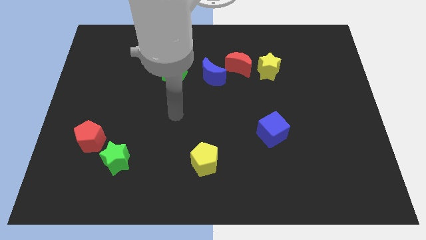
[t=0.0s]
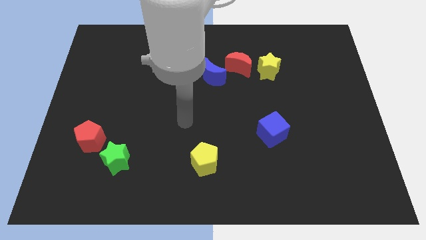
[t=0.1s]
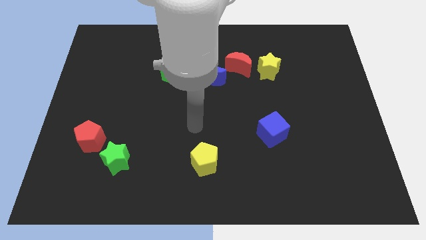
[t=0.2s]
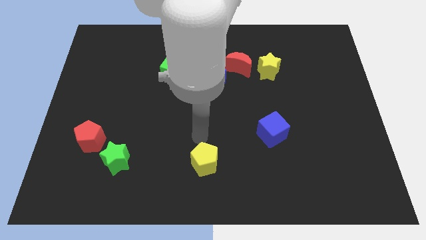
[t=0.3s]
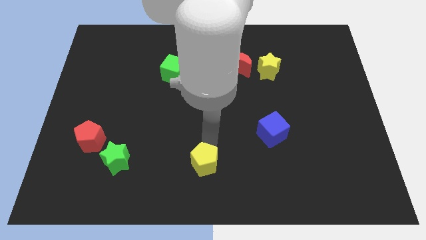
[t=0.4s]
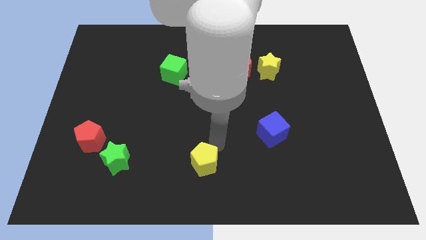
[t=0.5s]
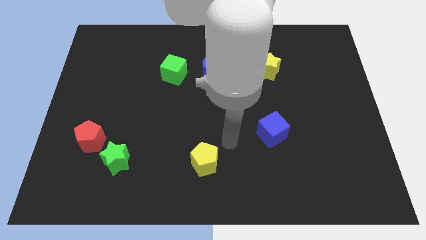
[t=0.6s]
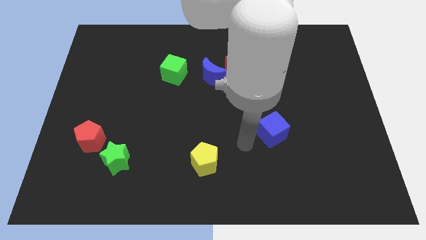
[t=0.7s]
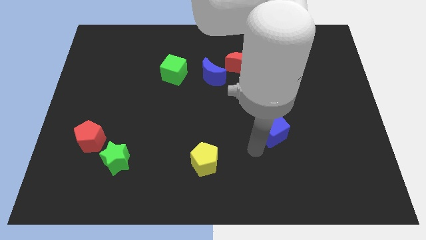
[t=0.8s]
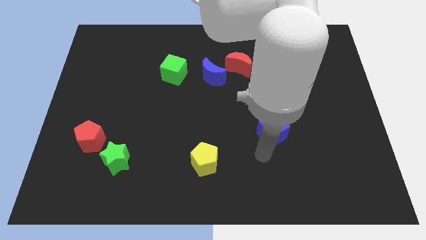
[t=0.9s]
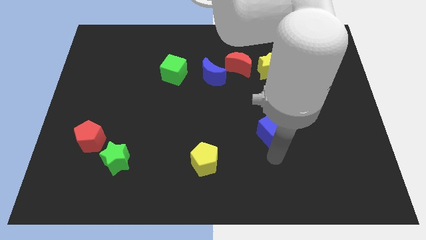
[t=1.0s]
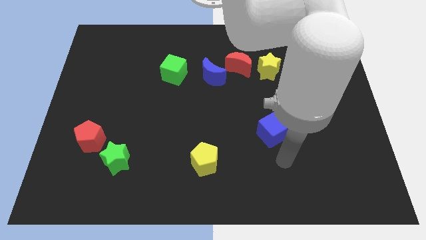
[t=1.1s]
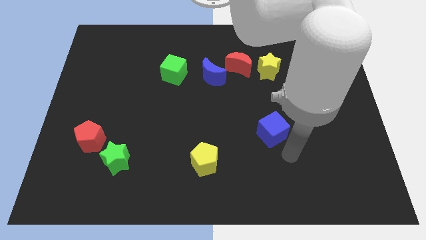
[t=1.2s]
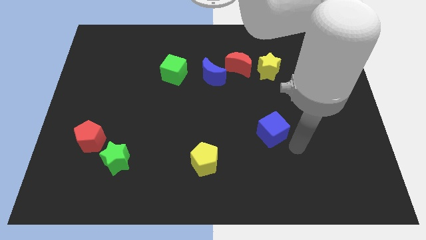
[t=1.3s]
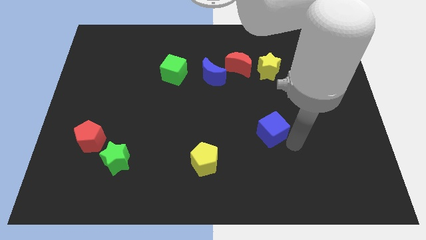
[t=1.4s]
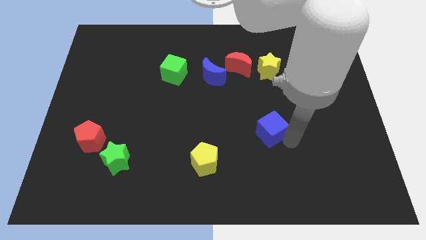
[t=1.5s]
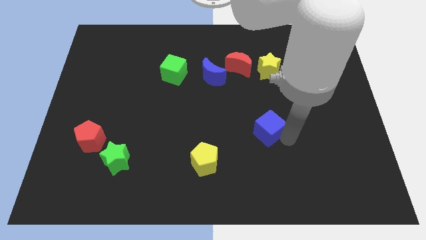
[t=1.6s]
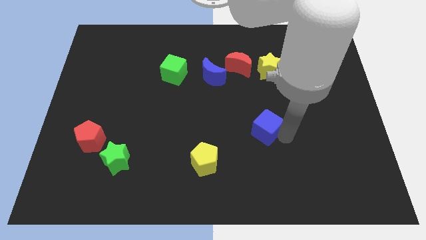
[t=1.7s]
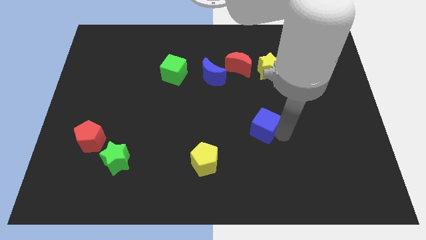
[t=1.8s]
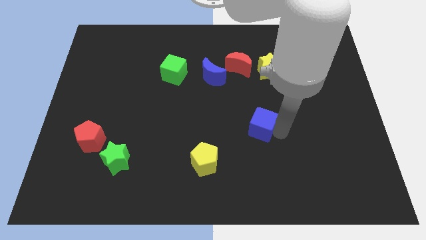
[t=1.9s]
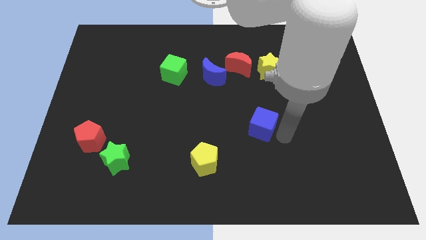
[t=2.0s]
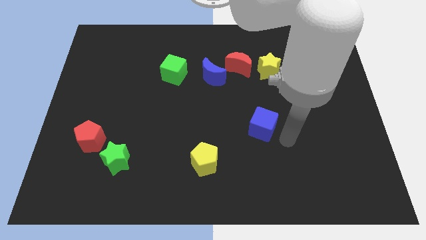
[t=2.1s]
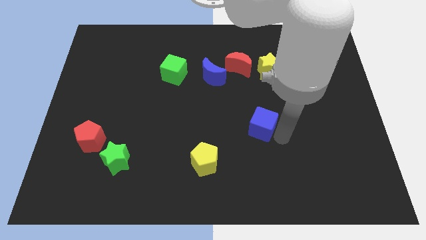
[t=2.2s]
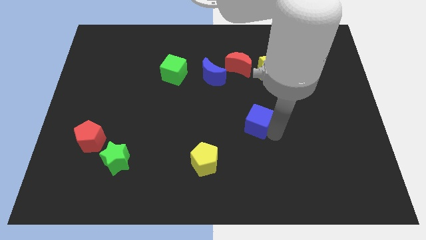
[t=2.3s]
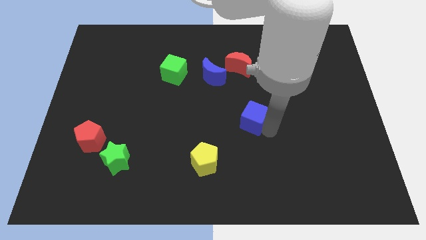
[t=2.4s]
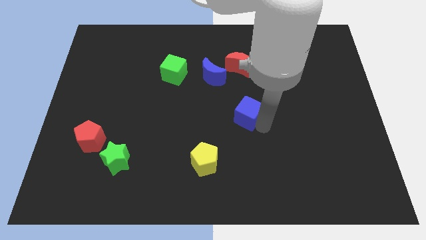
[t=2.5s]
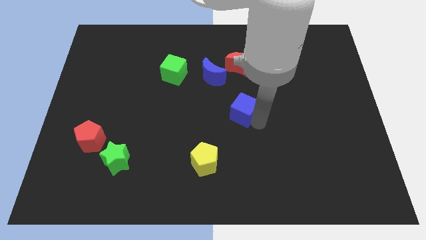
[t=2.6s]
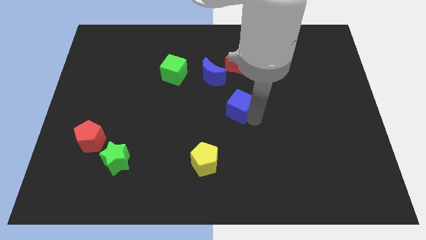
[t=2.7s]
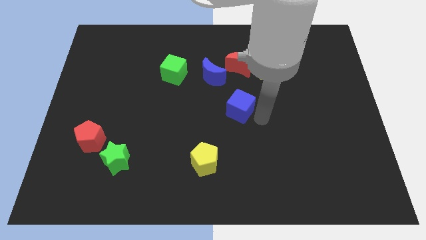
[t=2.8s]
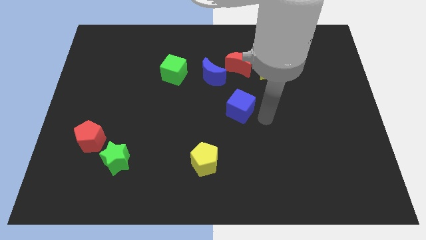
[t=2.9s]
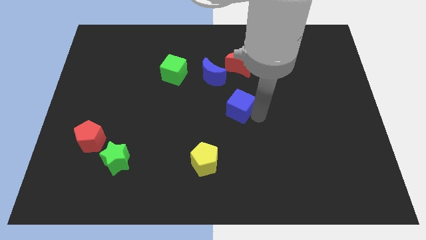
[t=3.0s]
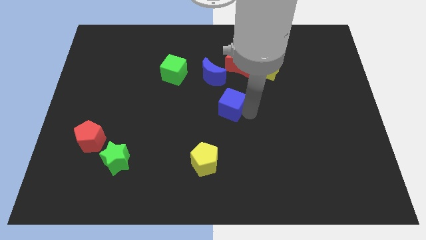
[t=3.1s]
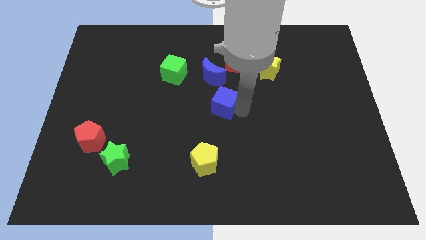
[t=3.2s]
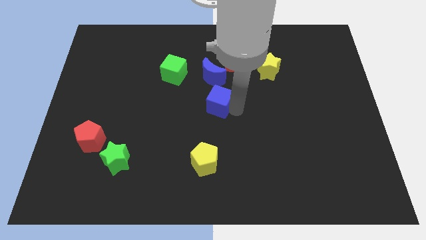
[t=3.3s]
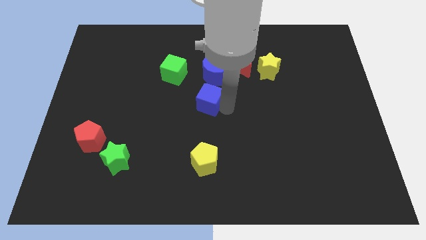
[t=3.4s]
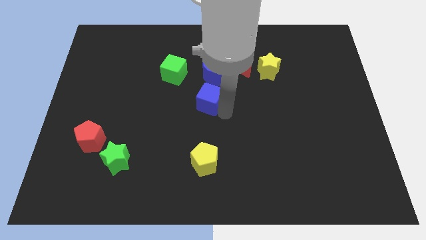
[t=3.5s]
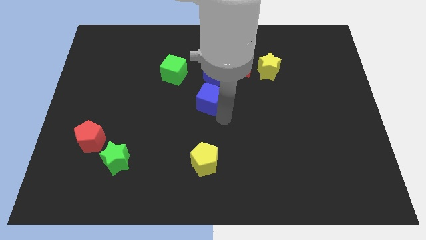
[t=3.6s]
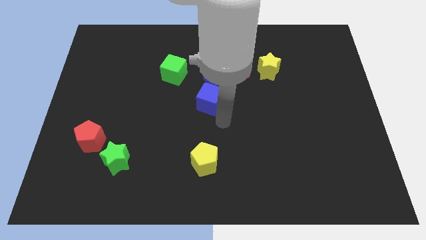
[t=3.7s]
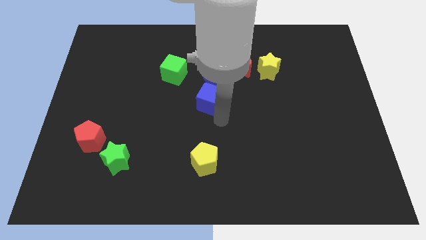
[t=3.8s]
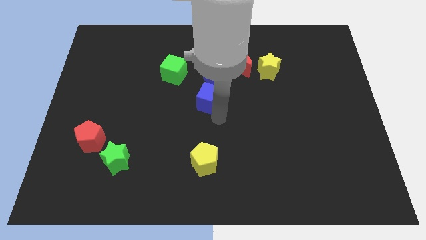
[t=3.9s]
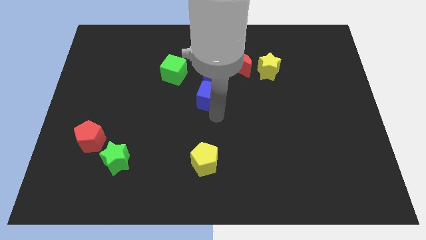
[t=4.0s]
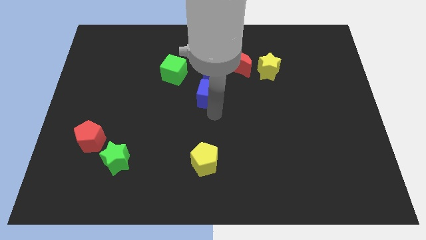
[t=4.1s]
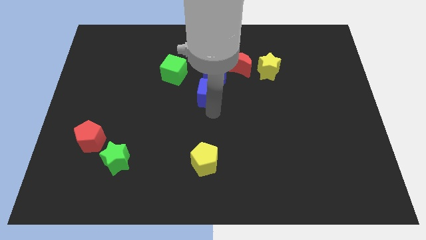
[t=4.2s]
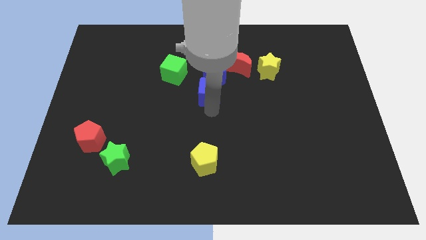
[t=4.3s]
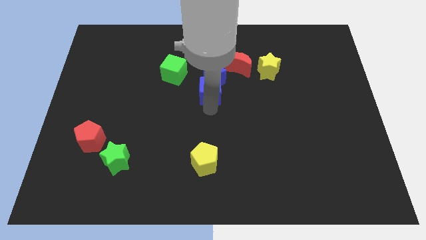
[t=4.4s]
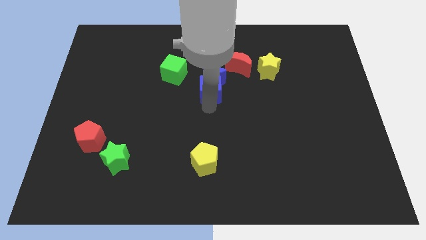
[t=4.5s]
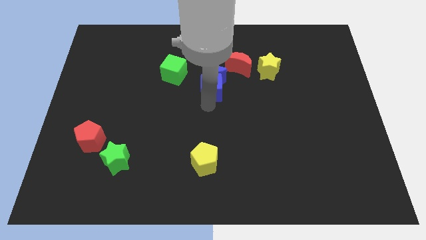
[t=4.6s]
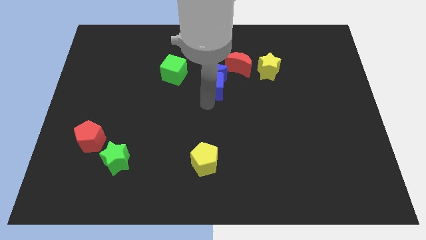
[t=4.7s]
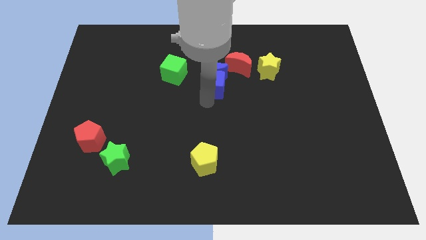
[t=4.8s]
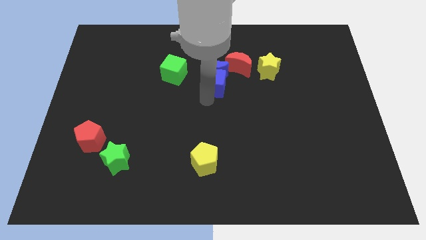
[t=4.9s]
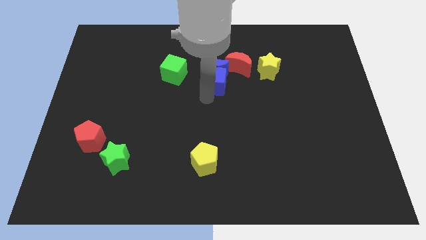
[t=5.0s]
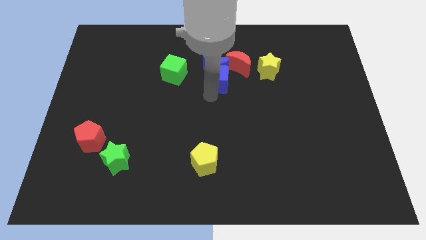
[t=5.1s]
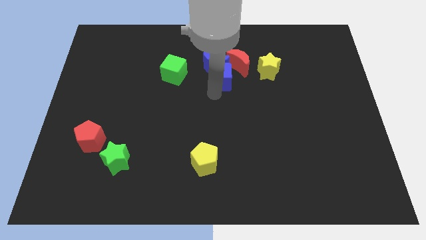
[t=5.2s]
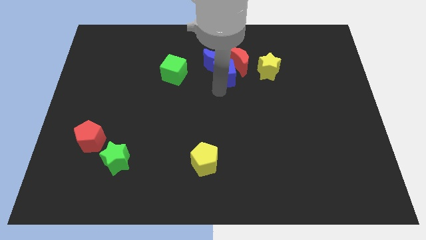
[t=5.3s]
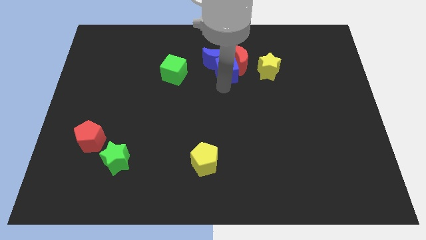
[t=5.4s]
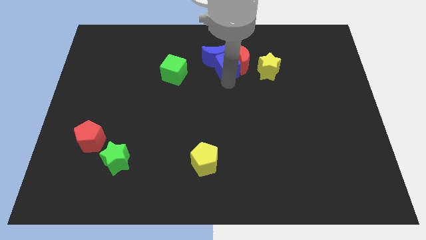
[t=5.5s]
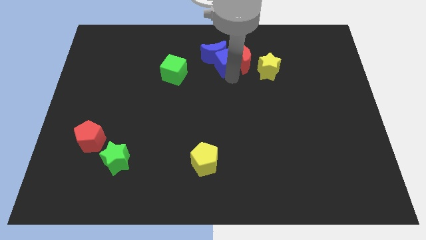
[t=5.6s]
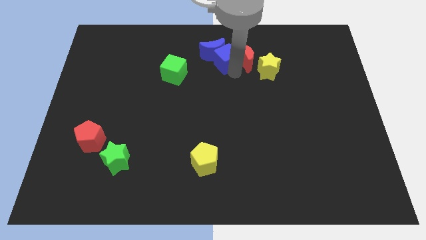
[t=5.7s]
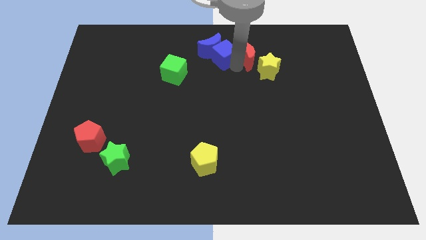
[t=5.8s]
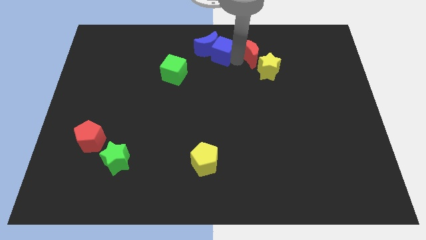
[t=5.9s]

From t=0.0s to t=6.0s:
slide the blue cube to the top side

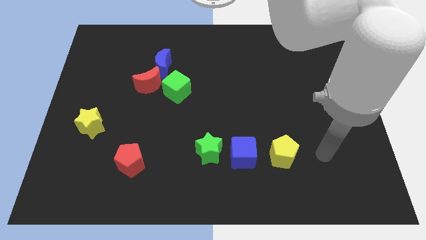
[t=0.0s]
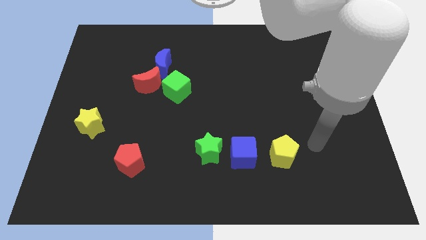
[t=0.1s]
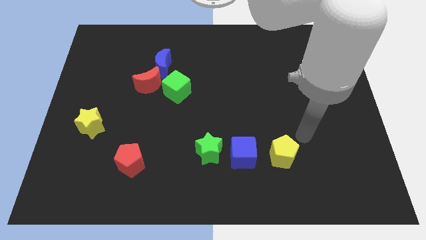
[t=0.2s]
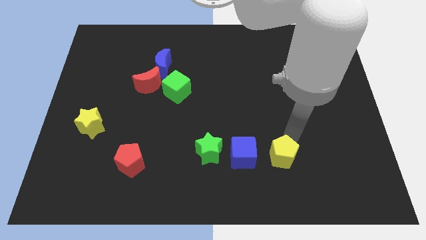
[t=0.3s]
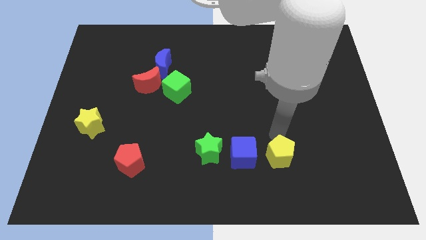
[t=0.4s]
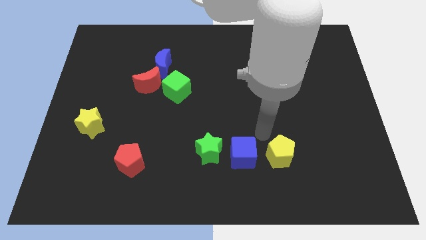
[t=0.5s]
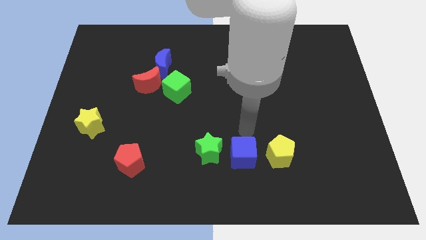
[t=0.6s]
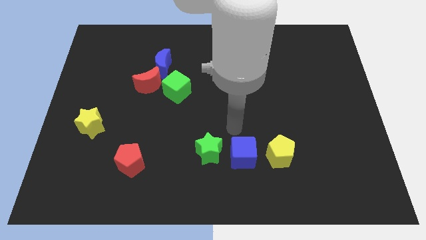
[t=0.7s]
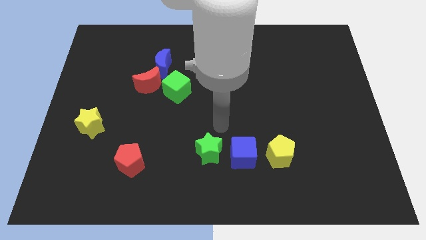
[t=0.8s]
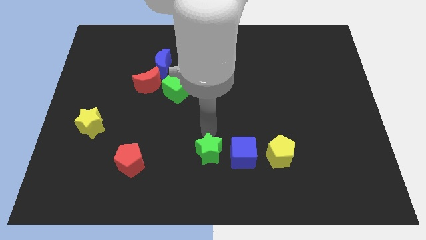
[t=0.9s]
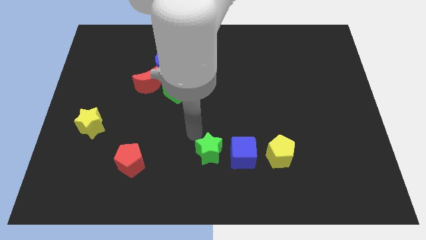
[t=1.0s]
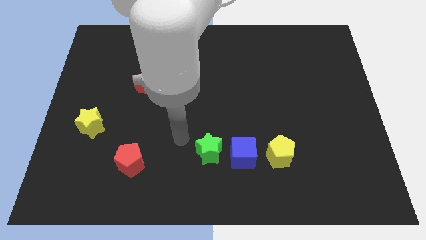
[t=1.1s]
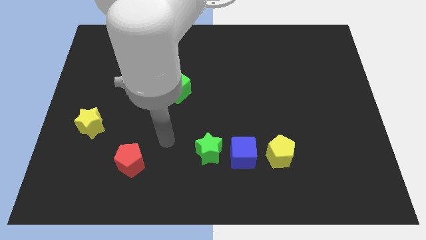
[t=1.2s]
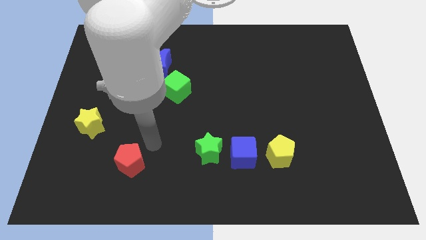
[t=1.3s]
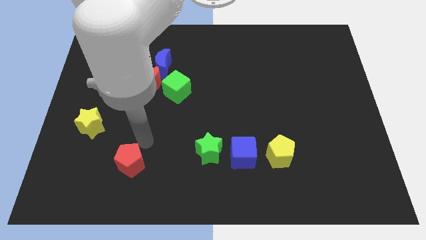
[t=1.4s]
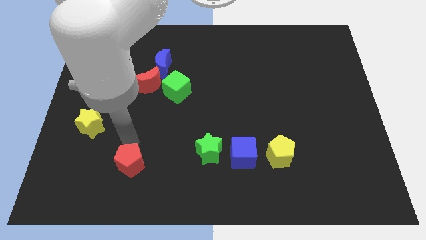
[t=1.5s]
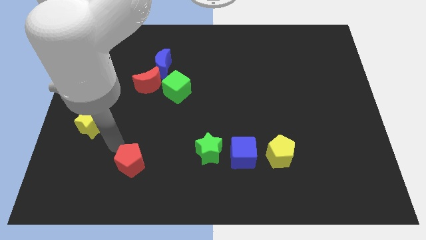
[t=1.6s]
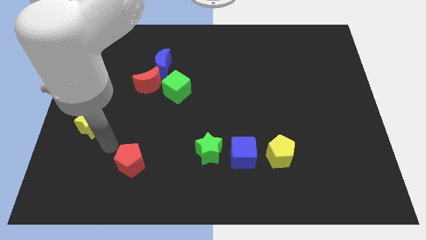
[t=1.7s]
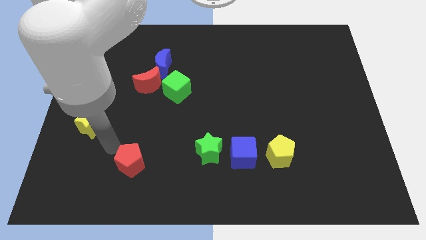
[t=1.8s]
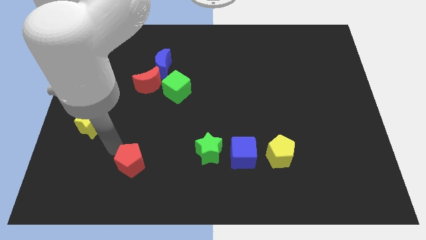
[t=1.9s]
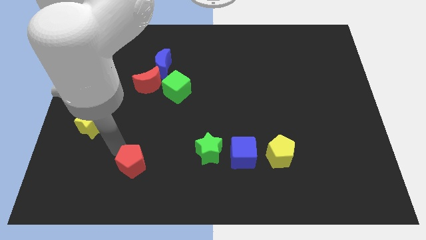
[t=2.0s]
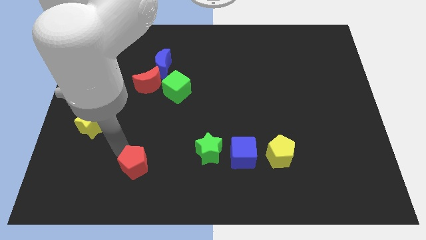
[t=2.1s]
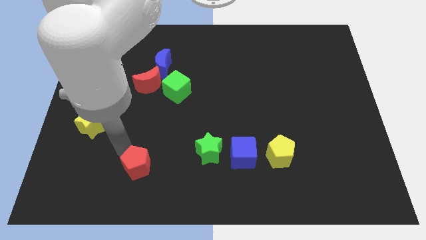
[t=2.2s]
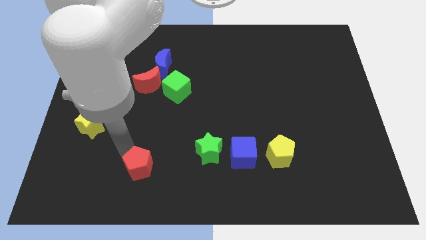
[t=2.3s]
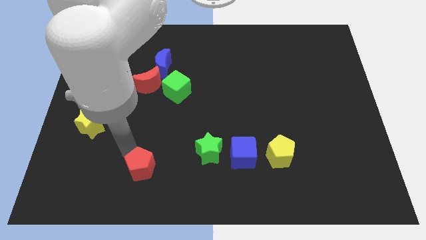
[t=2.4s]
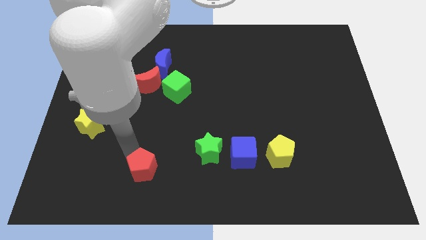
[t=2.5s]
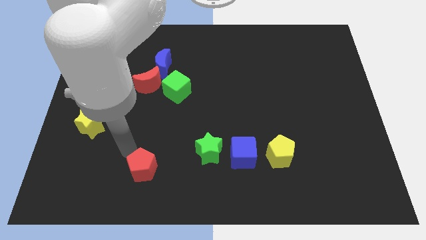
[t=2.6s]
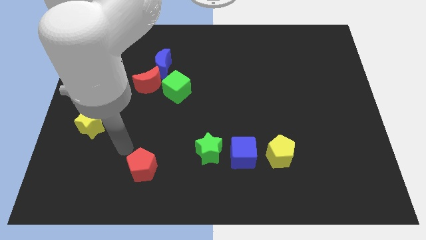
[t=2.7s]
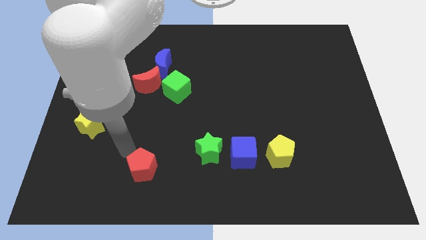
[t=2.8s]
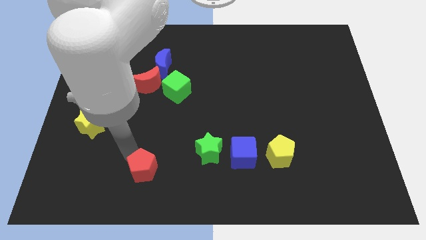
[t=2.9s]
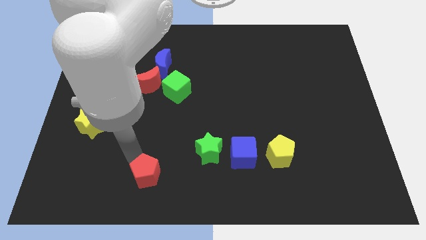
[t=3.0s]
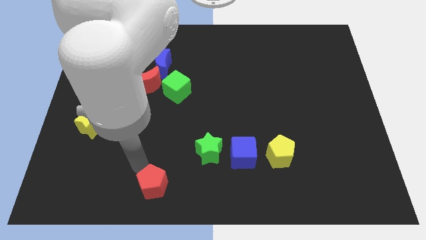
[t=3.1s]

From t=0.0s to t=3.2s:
push the red pentagon to the bottom side
